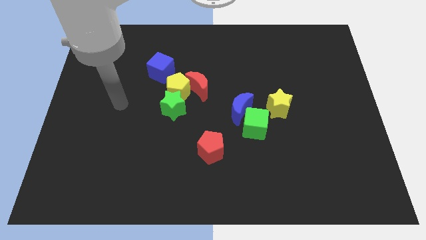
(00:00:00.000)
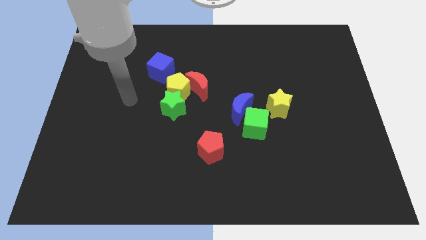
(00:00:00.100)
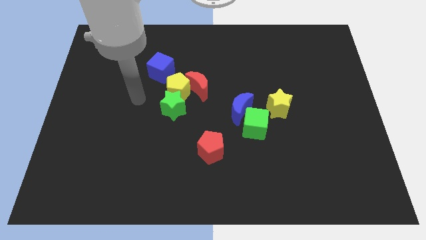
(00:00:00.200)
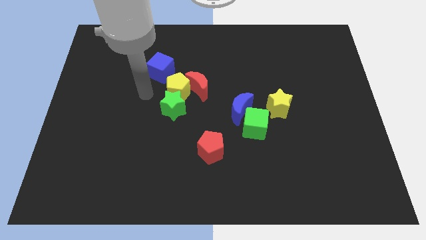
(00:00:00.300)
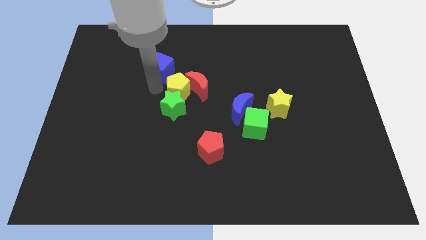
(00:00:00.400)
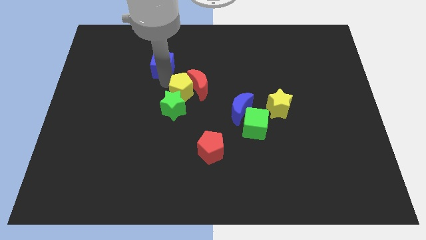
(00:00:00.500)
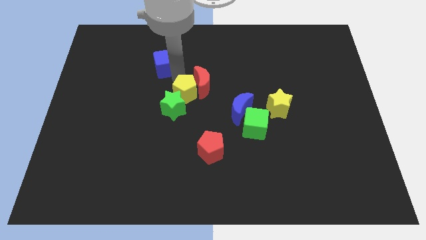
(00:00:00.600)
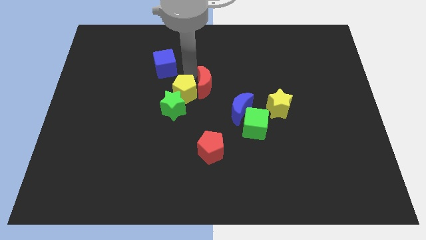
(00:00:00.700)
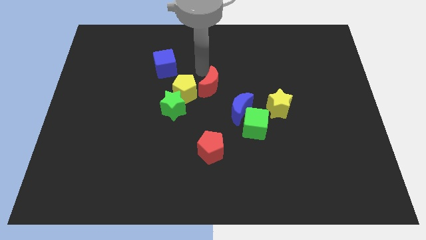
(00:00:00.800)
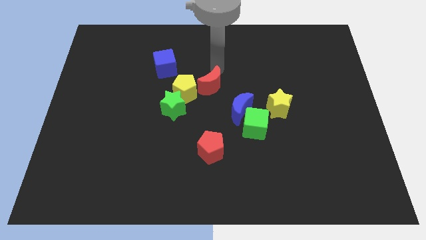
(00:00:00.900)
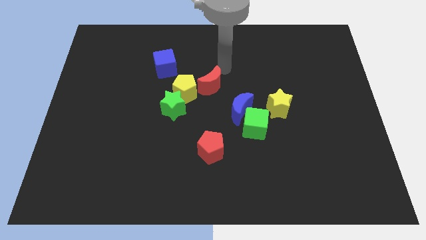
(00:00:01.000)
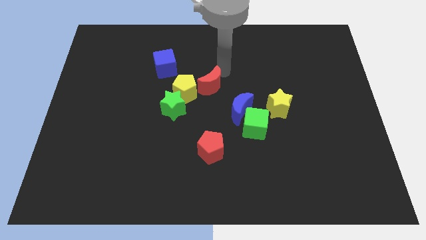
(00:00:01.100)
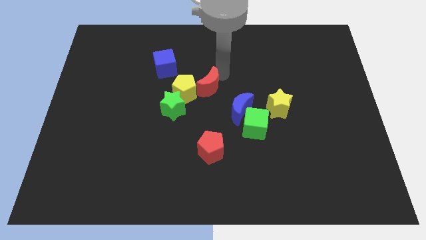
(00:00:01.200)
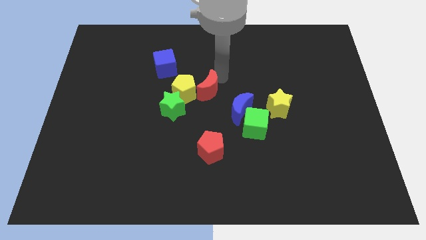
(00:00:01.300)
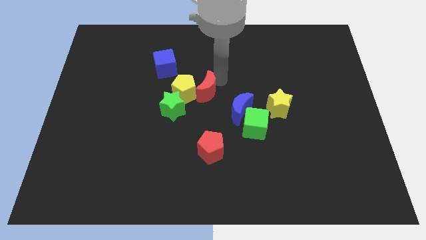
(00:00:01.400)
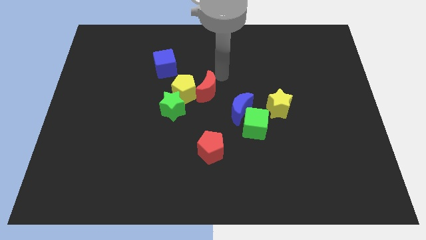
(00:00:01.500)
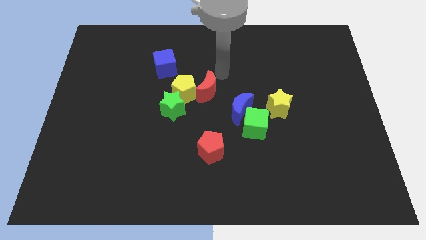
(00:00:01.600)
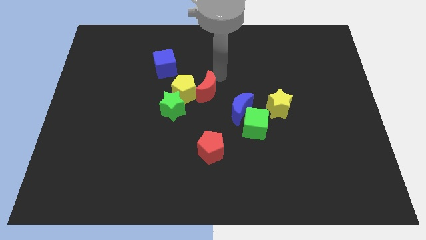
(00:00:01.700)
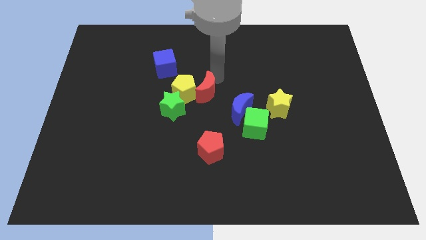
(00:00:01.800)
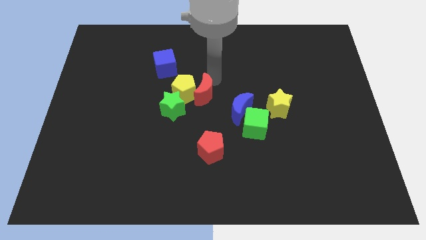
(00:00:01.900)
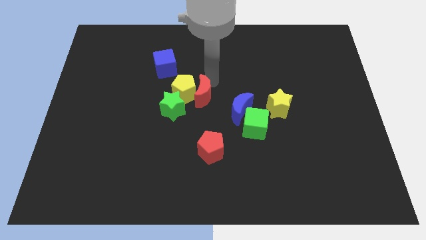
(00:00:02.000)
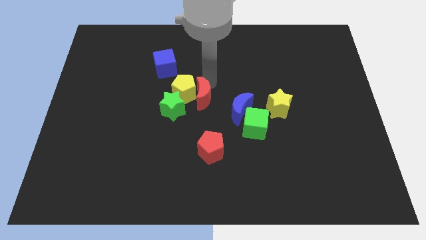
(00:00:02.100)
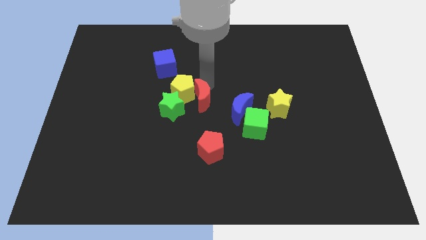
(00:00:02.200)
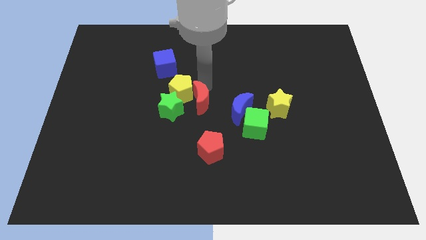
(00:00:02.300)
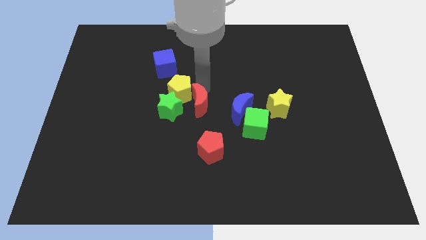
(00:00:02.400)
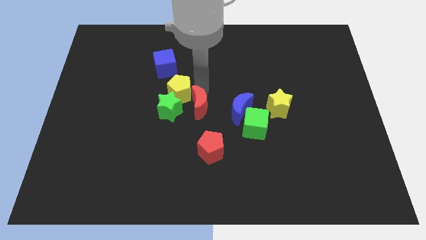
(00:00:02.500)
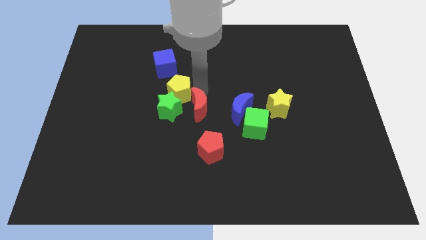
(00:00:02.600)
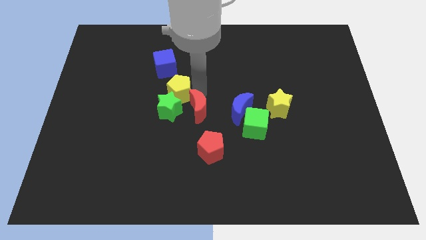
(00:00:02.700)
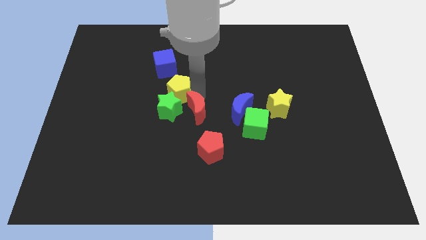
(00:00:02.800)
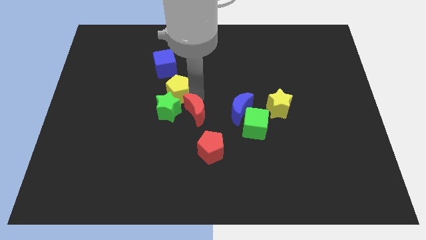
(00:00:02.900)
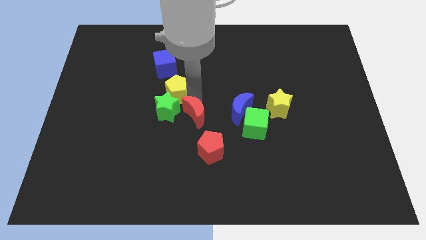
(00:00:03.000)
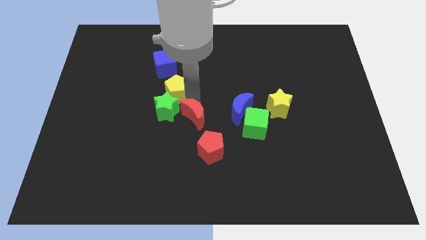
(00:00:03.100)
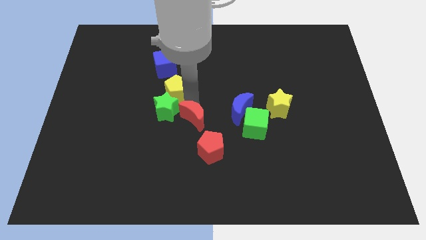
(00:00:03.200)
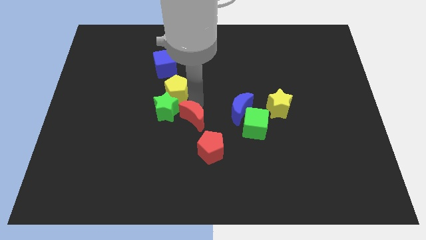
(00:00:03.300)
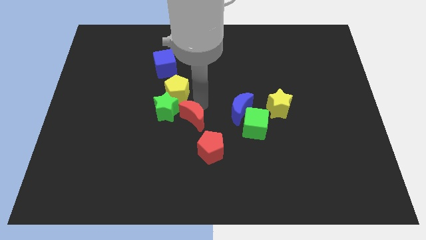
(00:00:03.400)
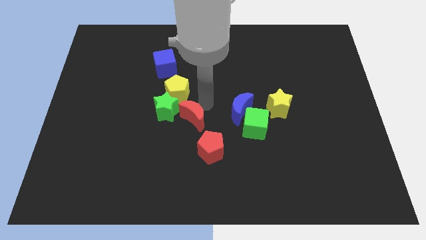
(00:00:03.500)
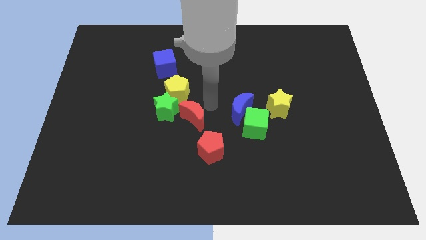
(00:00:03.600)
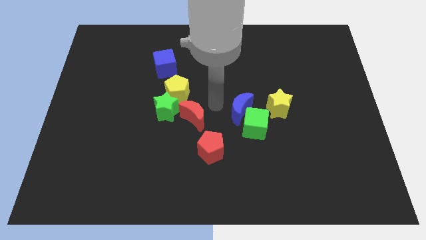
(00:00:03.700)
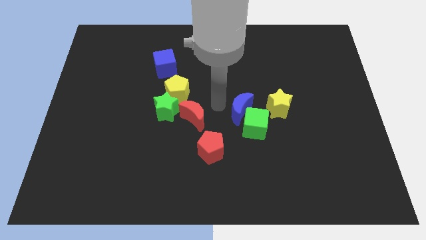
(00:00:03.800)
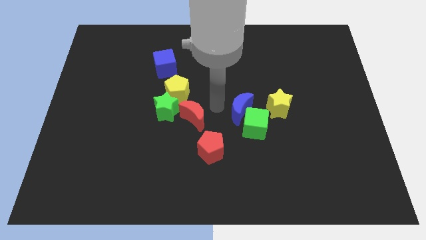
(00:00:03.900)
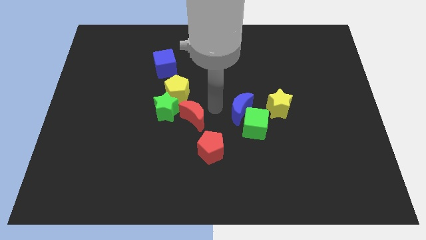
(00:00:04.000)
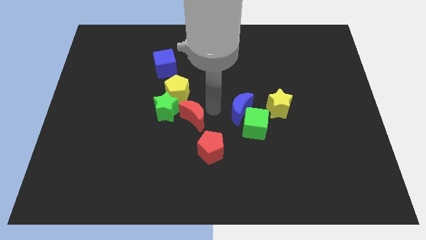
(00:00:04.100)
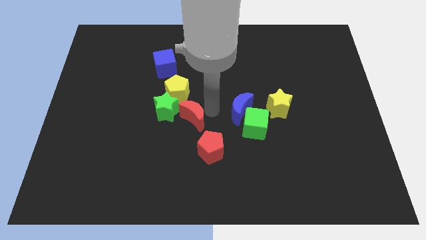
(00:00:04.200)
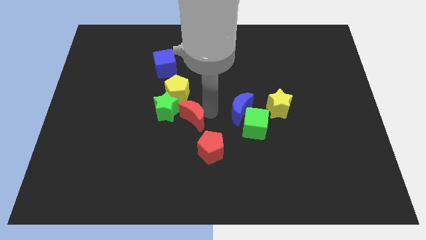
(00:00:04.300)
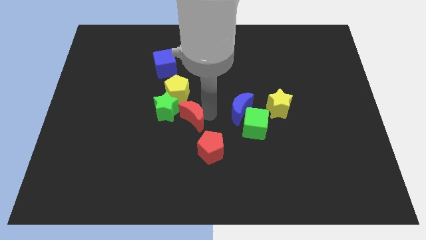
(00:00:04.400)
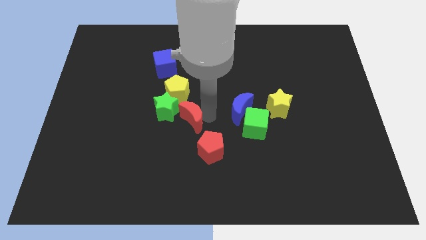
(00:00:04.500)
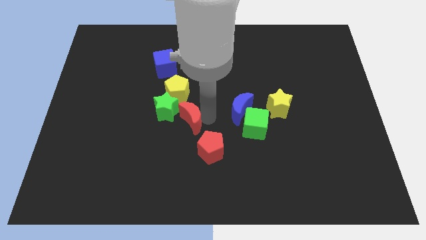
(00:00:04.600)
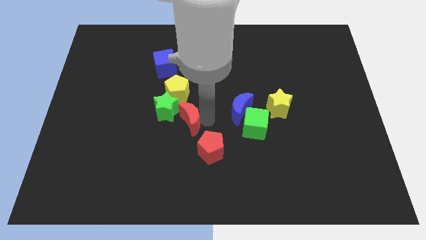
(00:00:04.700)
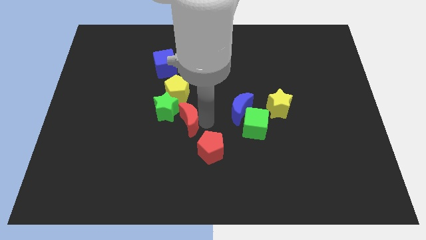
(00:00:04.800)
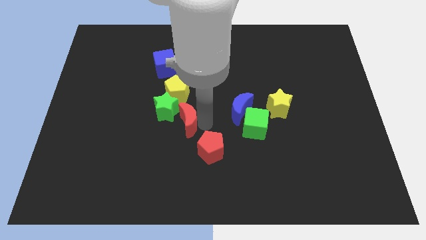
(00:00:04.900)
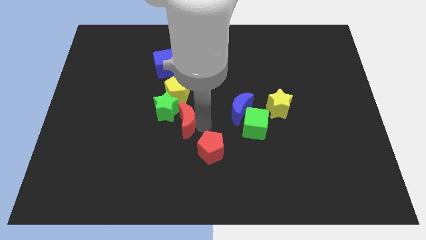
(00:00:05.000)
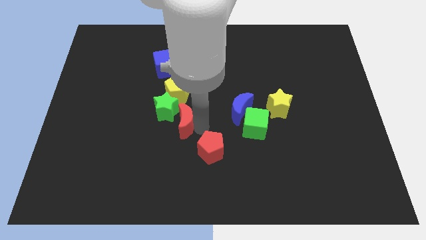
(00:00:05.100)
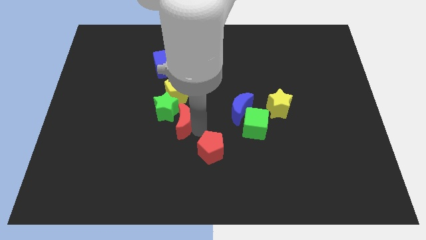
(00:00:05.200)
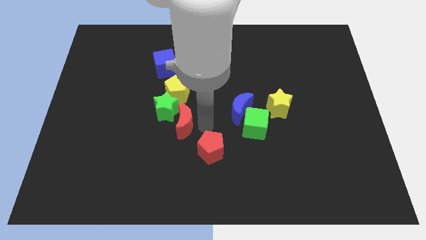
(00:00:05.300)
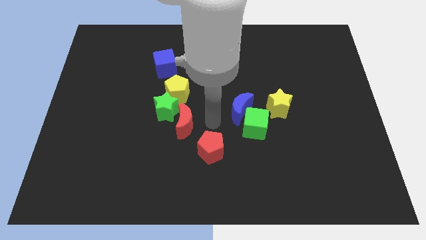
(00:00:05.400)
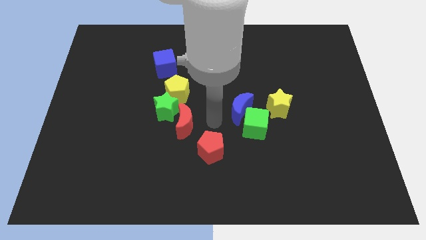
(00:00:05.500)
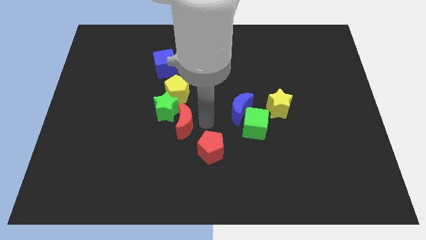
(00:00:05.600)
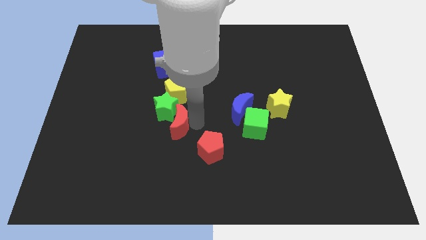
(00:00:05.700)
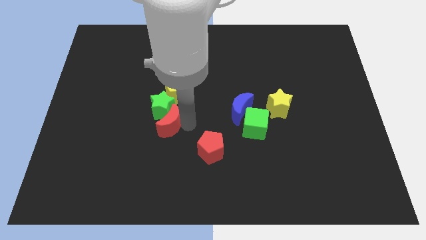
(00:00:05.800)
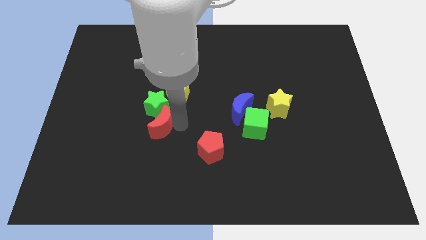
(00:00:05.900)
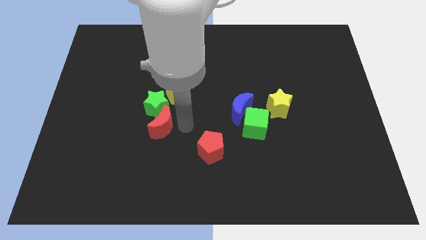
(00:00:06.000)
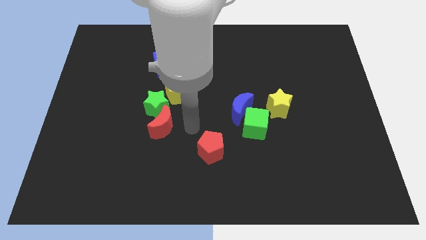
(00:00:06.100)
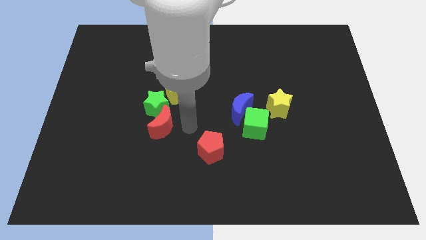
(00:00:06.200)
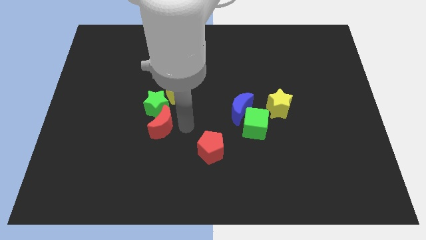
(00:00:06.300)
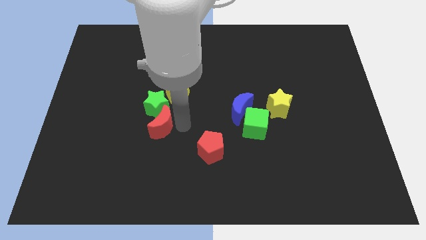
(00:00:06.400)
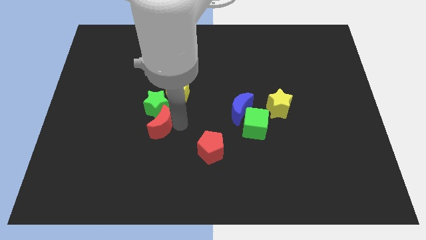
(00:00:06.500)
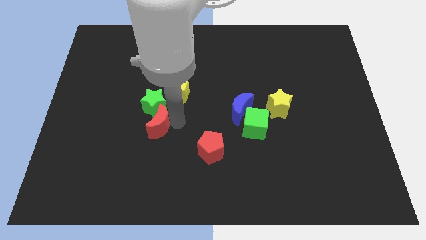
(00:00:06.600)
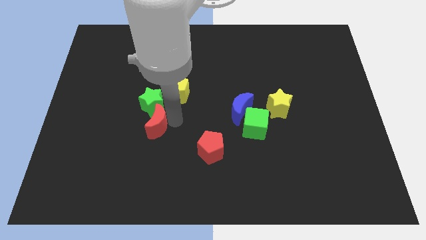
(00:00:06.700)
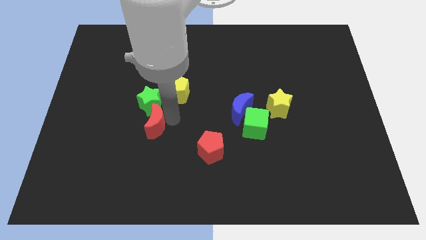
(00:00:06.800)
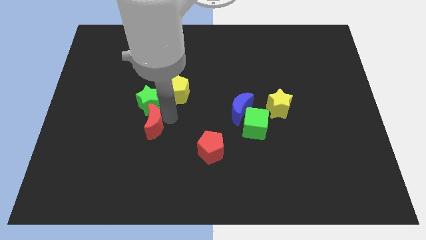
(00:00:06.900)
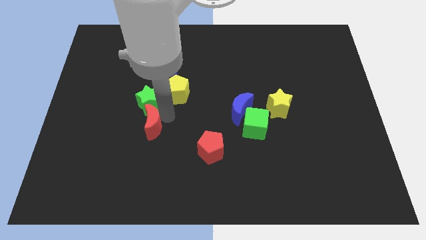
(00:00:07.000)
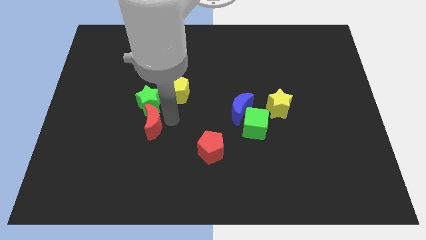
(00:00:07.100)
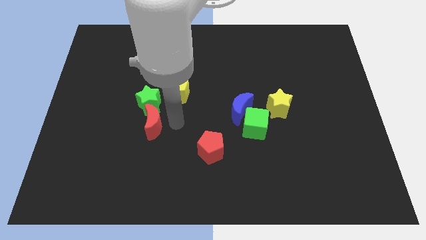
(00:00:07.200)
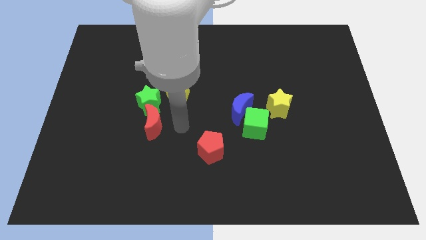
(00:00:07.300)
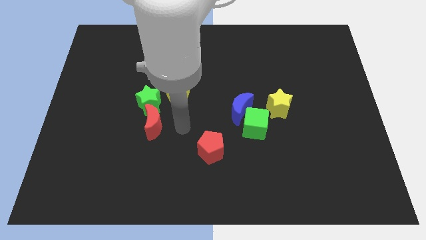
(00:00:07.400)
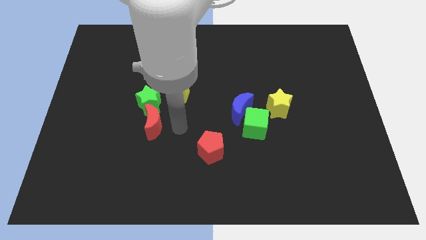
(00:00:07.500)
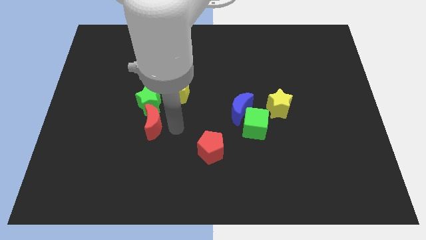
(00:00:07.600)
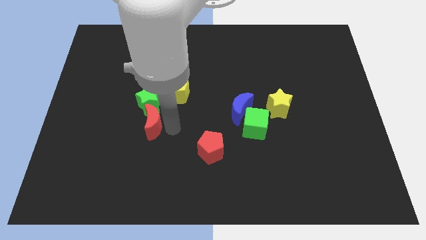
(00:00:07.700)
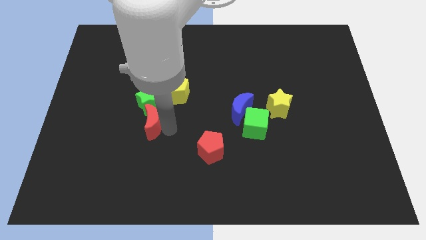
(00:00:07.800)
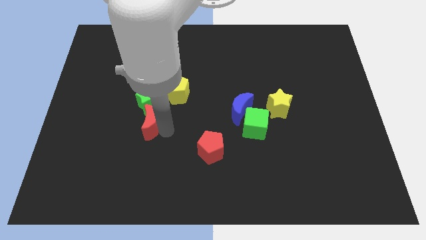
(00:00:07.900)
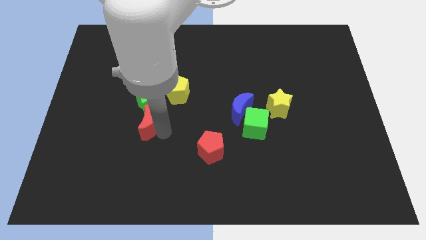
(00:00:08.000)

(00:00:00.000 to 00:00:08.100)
put the red moon diagonally down and to the left of the green star
